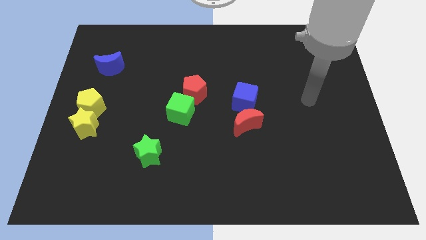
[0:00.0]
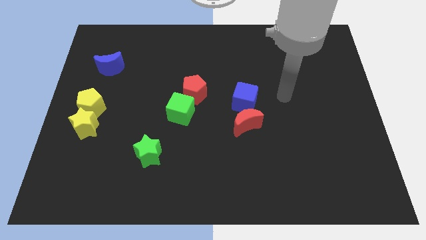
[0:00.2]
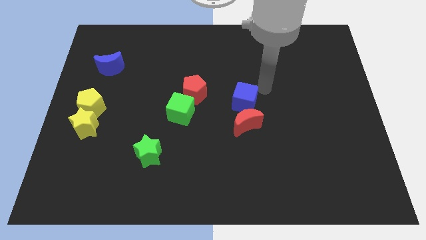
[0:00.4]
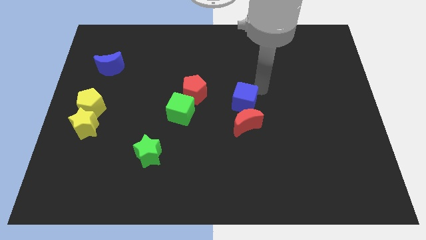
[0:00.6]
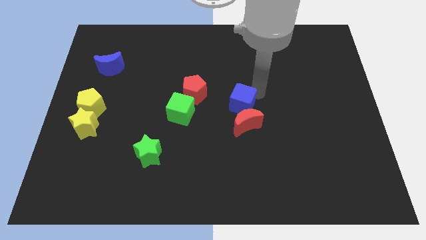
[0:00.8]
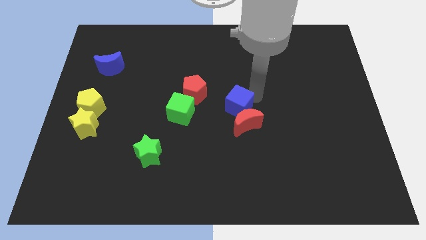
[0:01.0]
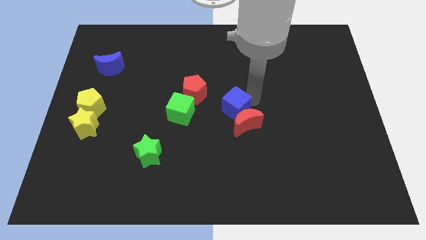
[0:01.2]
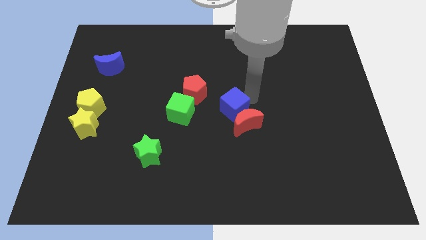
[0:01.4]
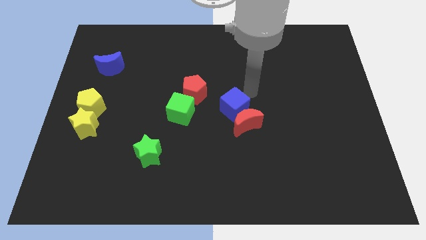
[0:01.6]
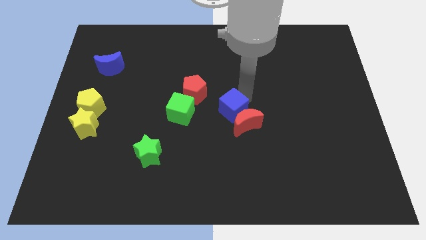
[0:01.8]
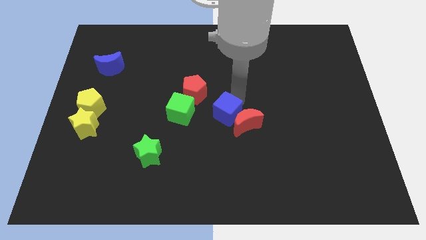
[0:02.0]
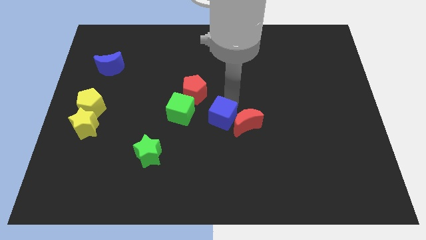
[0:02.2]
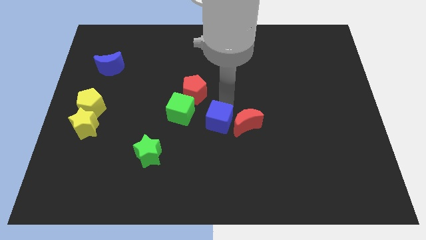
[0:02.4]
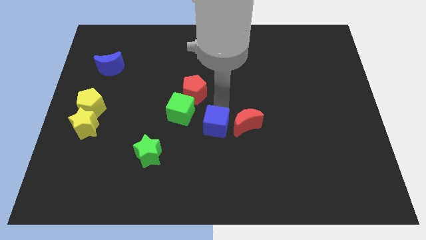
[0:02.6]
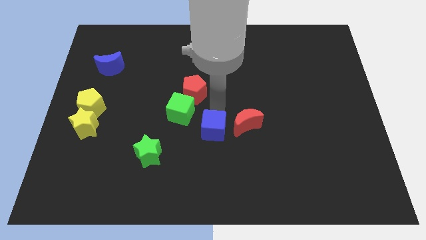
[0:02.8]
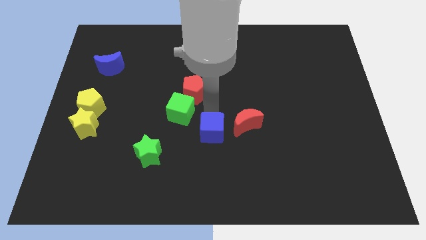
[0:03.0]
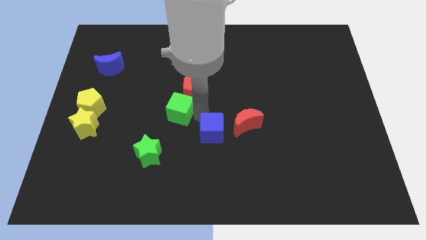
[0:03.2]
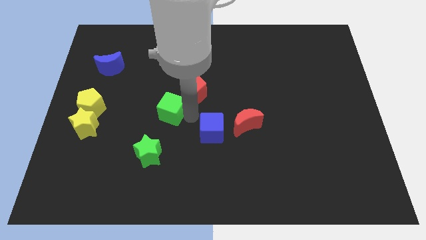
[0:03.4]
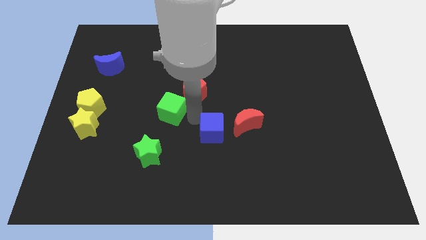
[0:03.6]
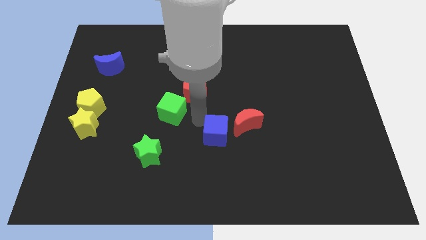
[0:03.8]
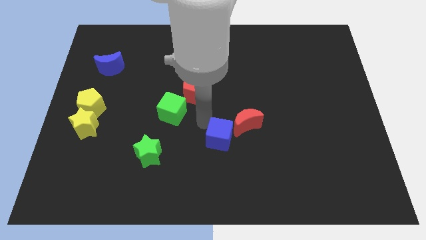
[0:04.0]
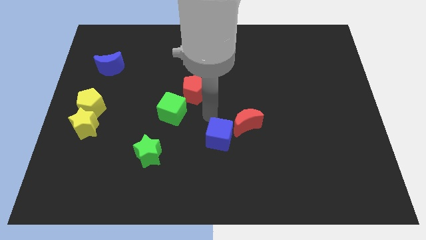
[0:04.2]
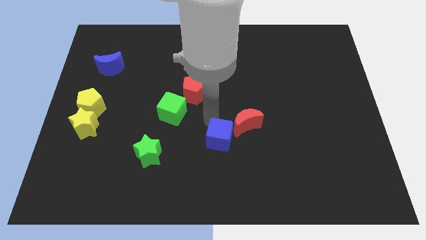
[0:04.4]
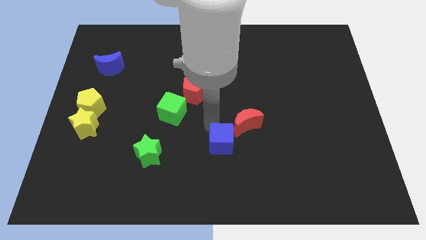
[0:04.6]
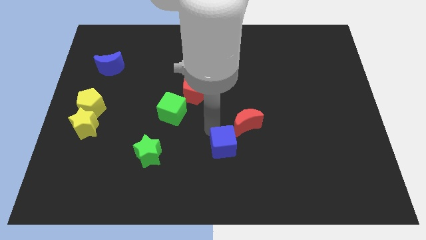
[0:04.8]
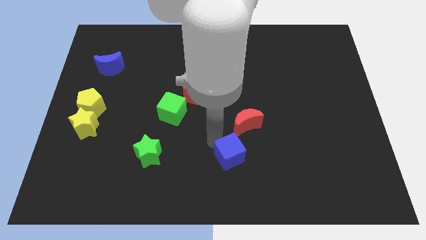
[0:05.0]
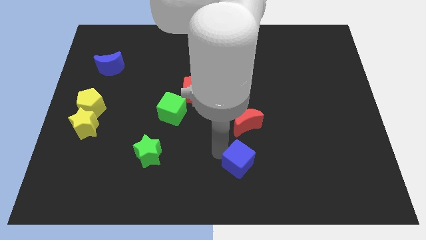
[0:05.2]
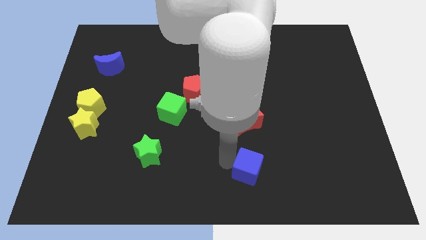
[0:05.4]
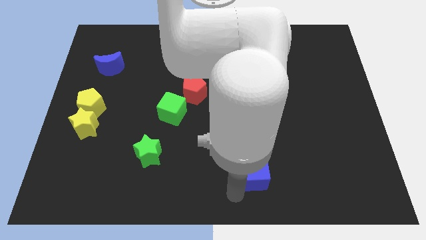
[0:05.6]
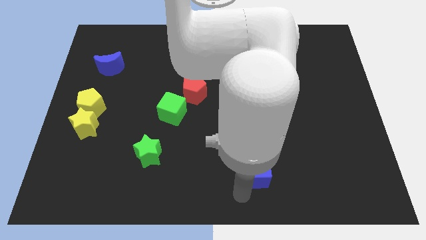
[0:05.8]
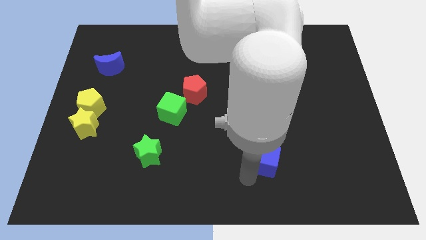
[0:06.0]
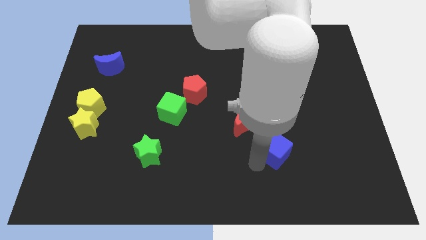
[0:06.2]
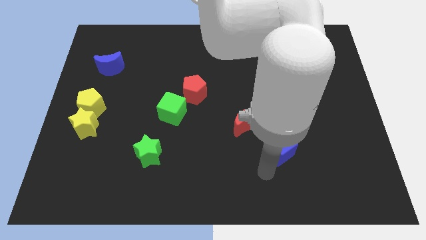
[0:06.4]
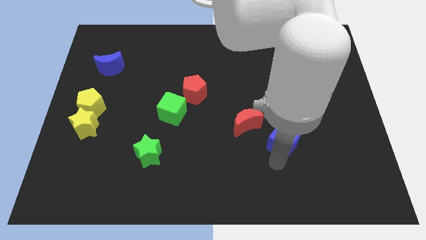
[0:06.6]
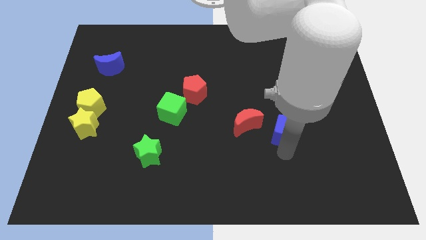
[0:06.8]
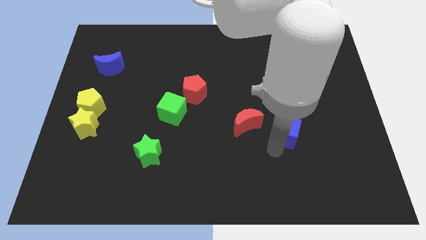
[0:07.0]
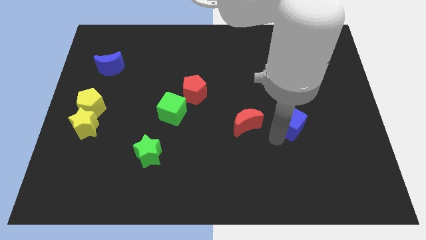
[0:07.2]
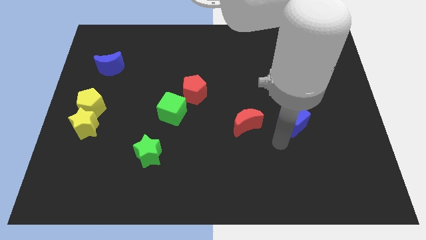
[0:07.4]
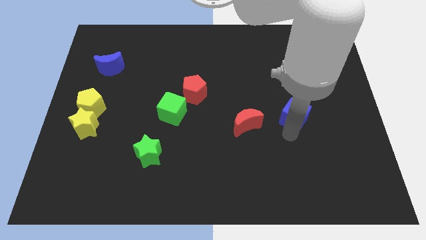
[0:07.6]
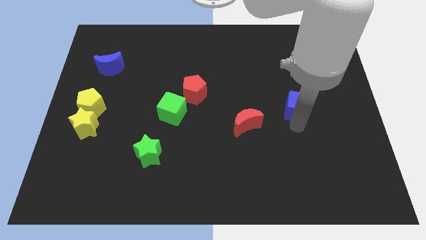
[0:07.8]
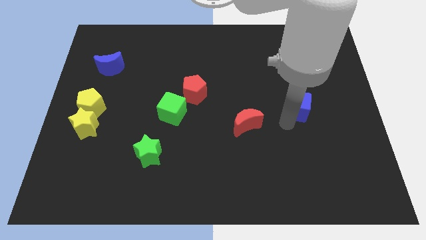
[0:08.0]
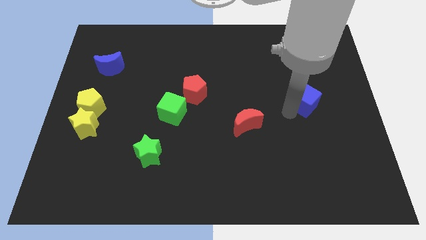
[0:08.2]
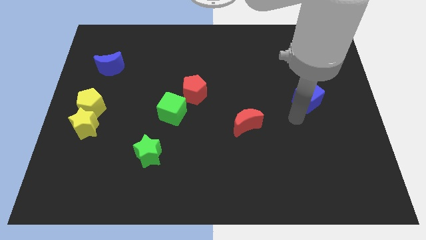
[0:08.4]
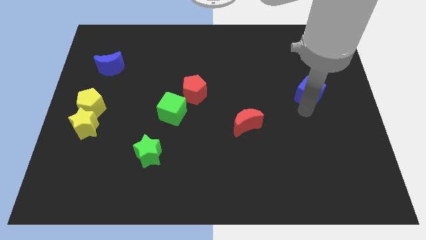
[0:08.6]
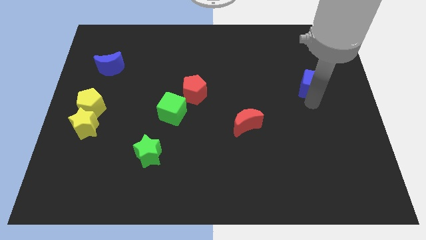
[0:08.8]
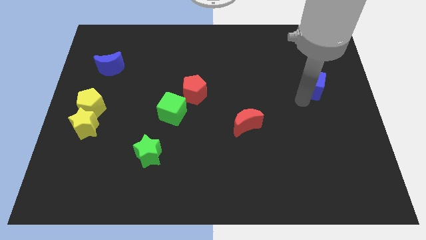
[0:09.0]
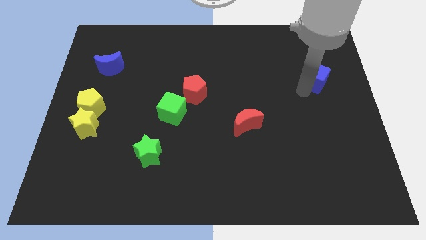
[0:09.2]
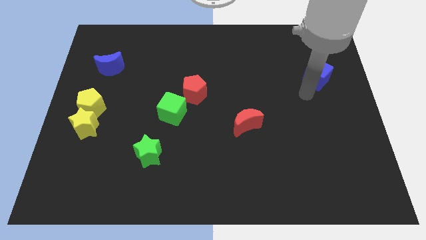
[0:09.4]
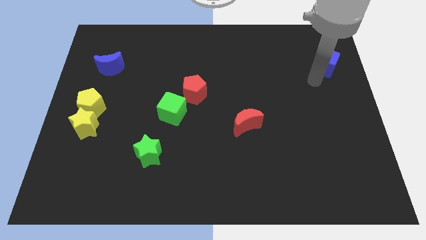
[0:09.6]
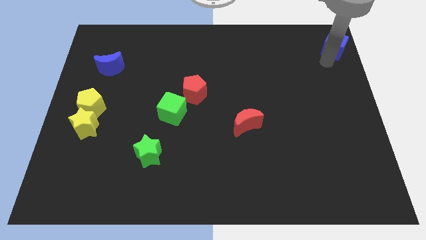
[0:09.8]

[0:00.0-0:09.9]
slide the blue cube to the top right corner

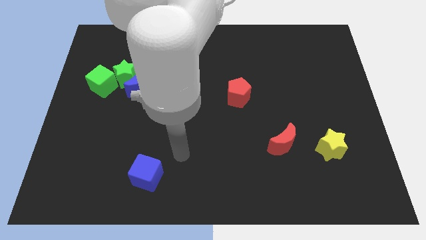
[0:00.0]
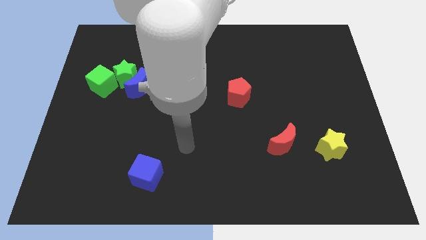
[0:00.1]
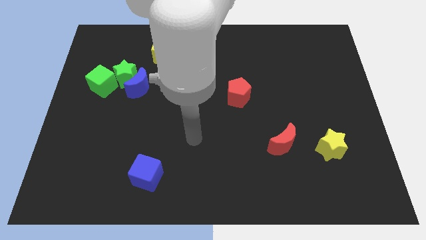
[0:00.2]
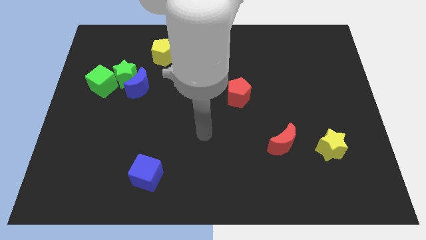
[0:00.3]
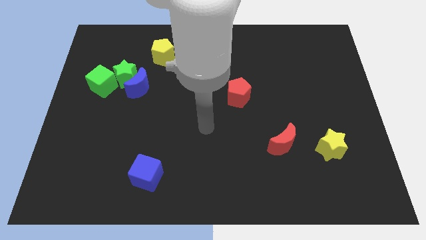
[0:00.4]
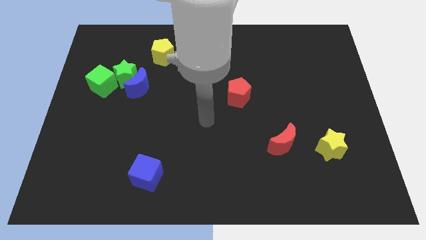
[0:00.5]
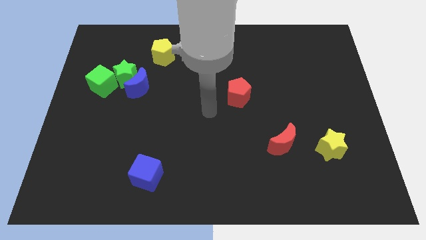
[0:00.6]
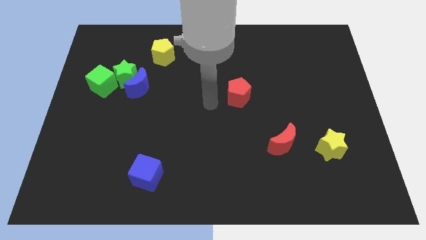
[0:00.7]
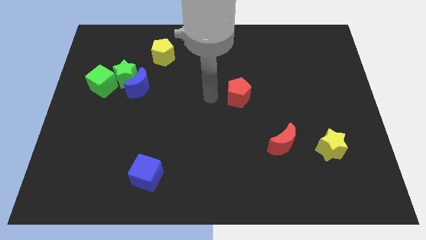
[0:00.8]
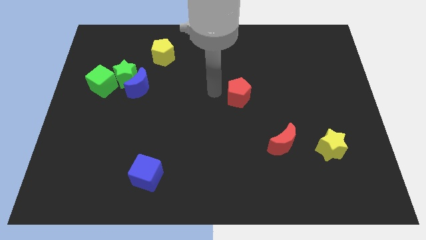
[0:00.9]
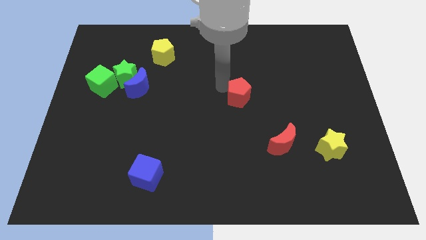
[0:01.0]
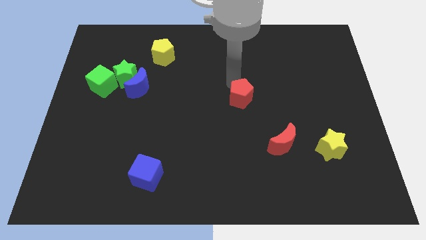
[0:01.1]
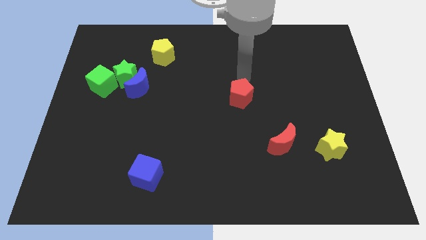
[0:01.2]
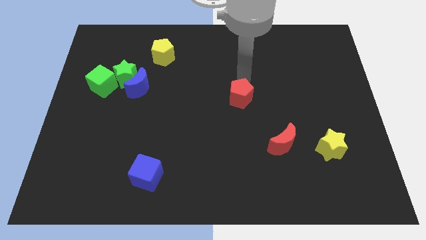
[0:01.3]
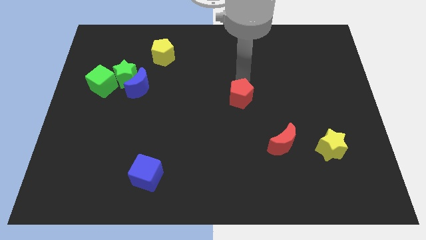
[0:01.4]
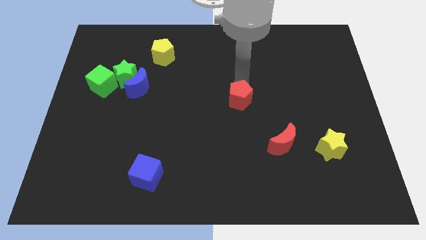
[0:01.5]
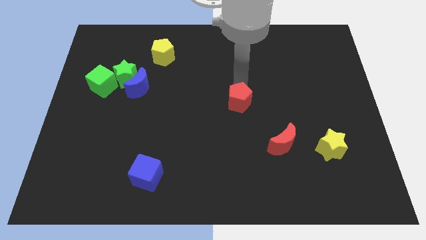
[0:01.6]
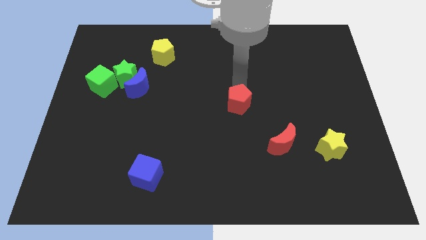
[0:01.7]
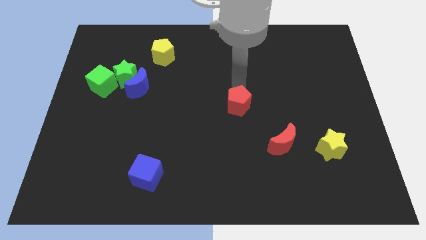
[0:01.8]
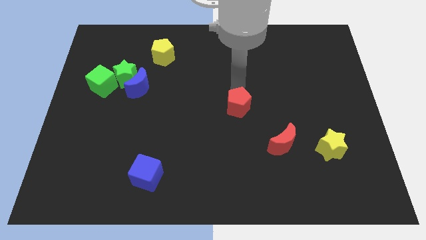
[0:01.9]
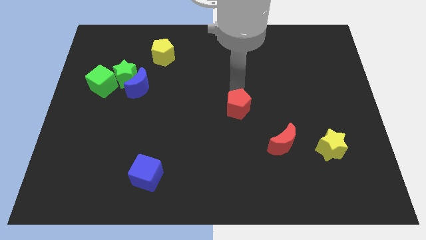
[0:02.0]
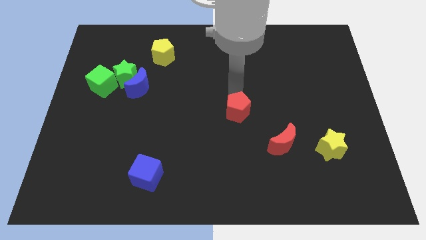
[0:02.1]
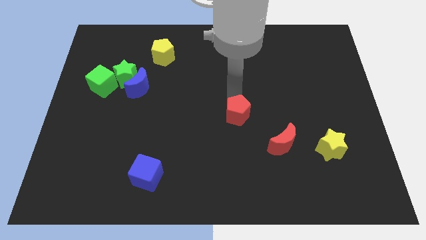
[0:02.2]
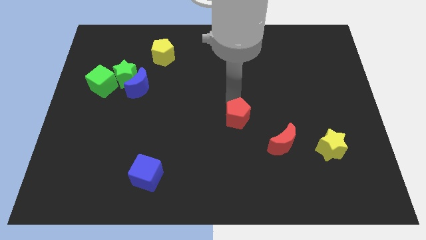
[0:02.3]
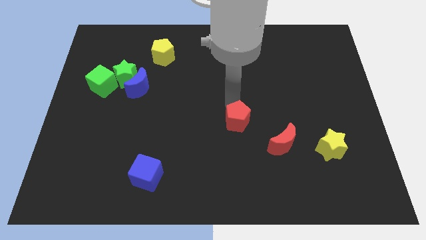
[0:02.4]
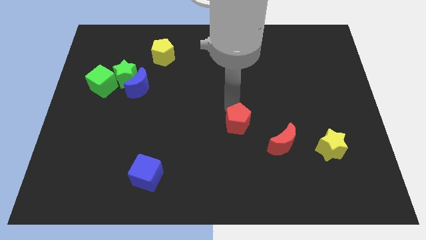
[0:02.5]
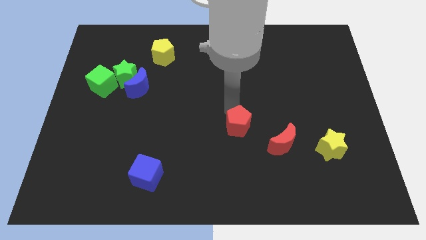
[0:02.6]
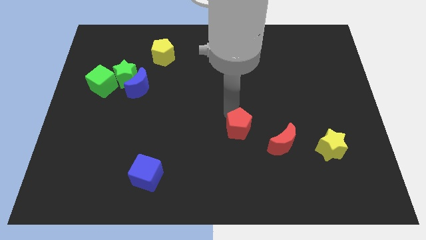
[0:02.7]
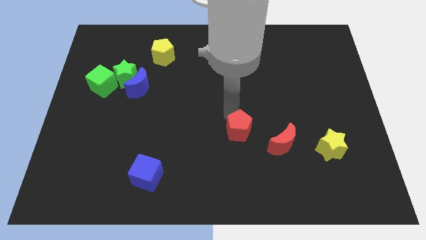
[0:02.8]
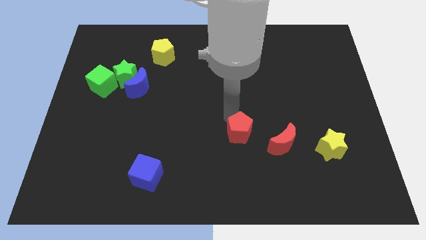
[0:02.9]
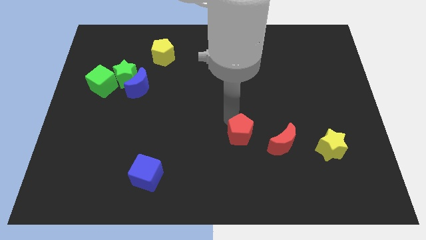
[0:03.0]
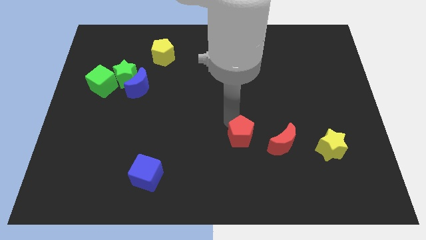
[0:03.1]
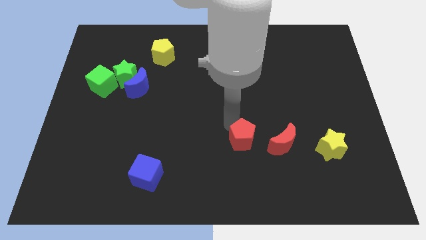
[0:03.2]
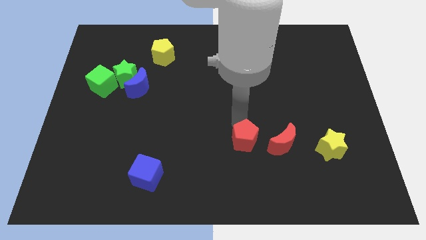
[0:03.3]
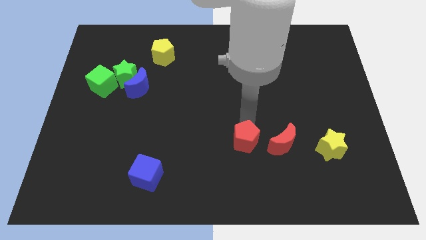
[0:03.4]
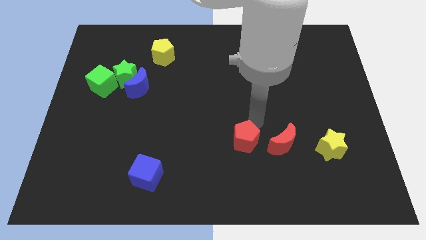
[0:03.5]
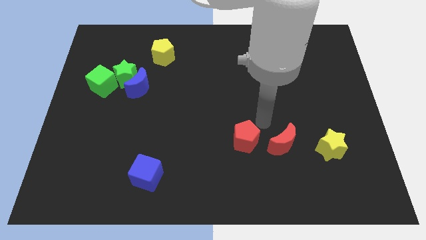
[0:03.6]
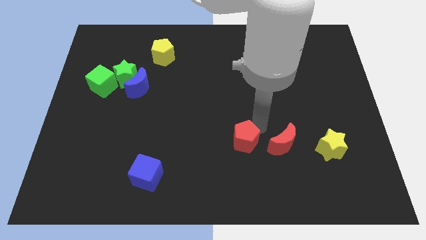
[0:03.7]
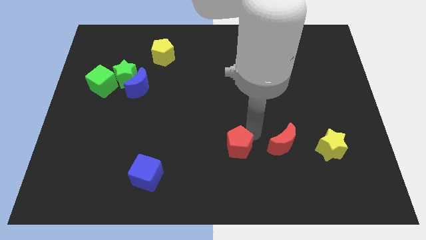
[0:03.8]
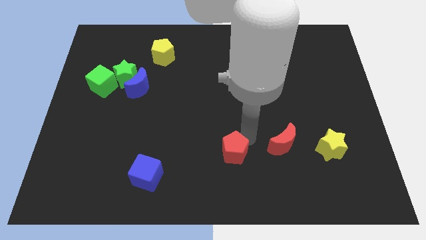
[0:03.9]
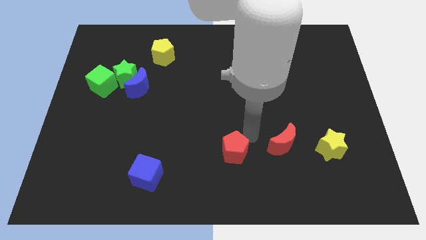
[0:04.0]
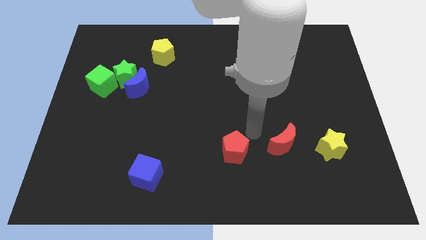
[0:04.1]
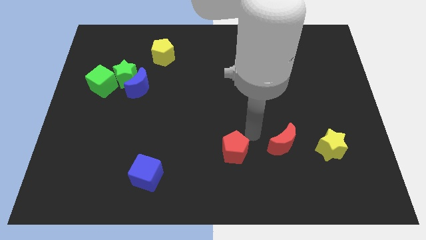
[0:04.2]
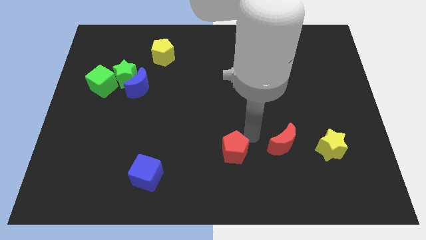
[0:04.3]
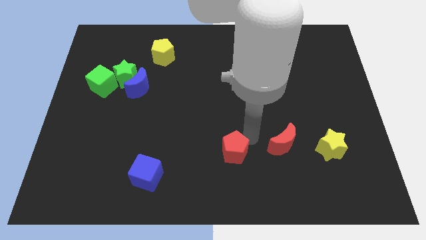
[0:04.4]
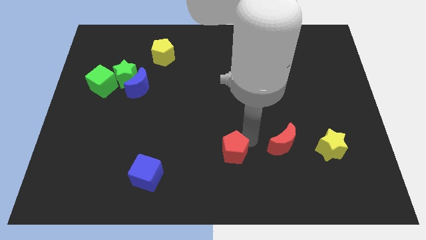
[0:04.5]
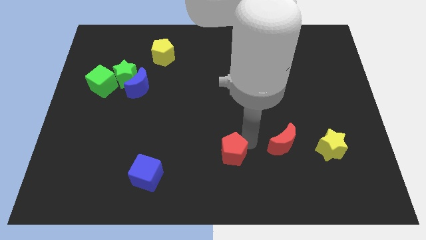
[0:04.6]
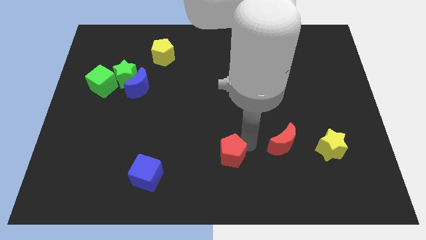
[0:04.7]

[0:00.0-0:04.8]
put the red pentagon to the bottom
